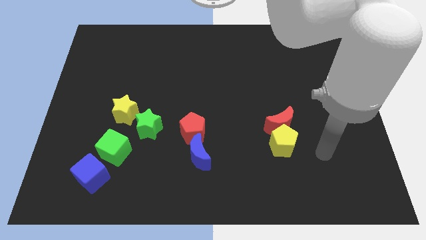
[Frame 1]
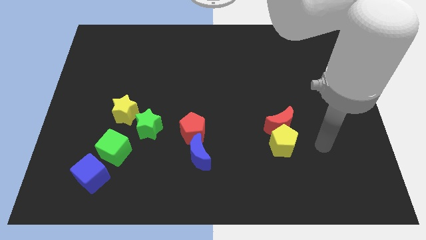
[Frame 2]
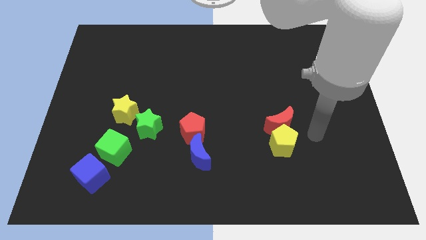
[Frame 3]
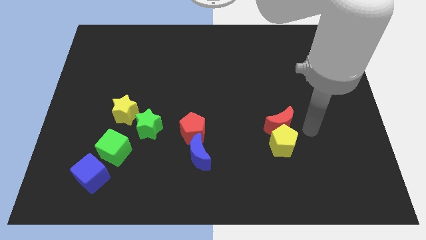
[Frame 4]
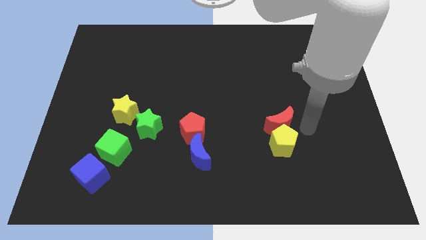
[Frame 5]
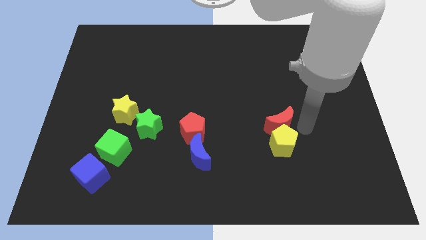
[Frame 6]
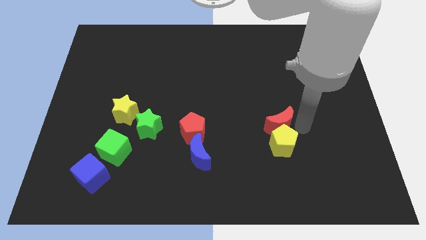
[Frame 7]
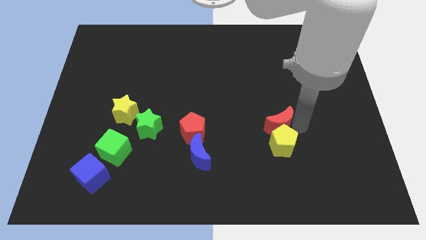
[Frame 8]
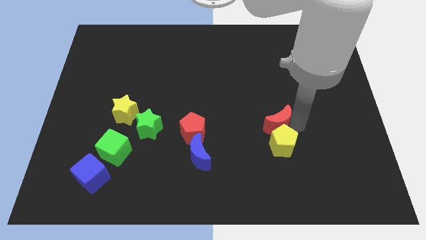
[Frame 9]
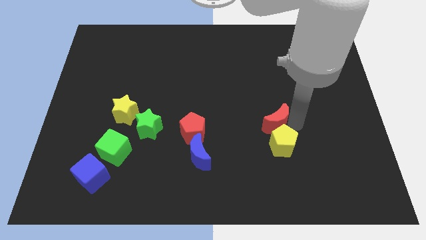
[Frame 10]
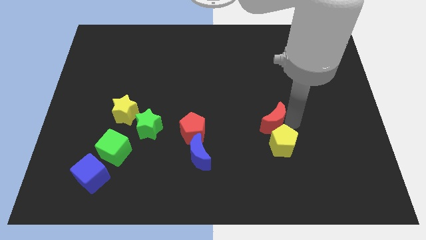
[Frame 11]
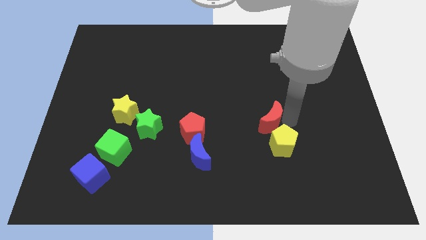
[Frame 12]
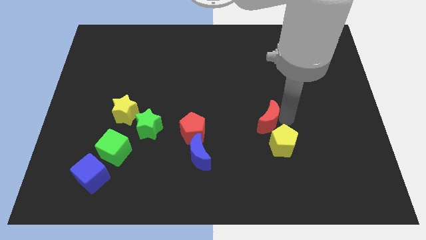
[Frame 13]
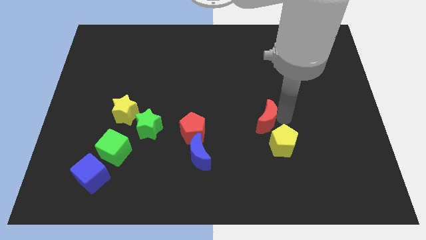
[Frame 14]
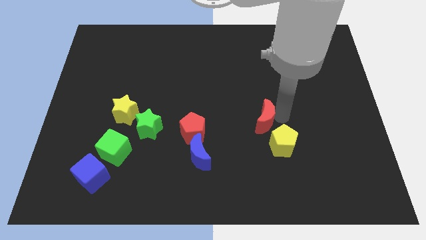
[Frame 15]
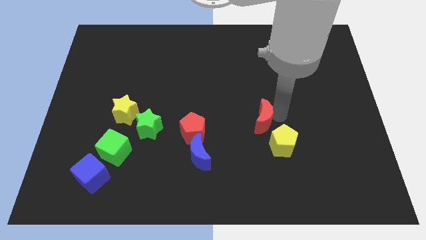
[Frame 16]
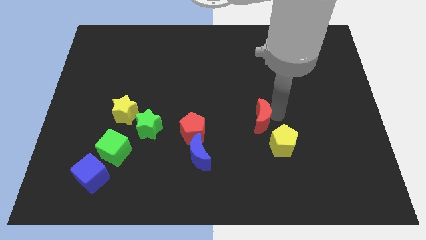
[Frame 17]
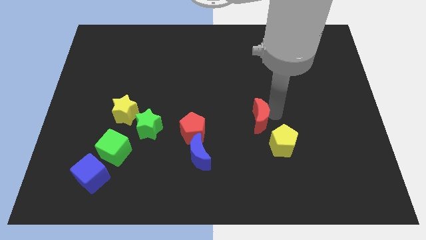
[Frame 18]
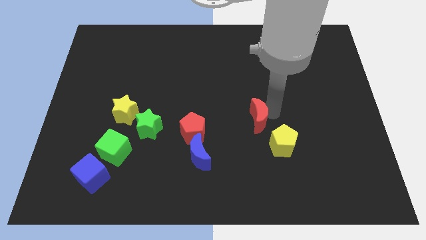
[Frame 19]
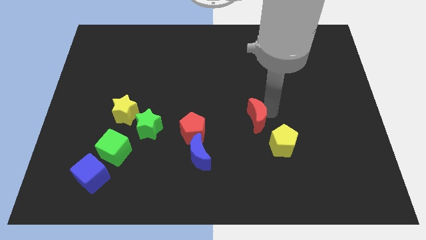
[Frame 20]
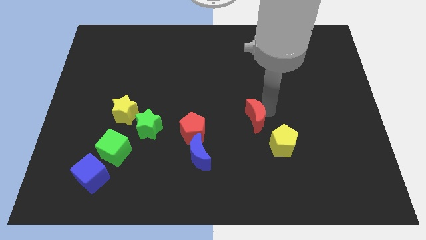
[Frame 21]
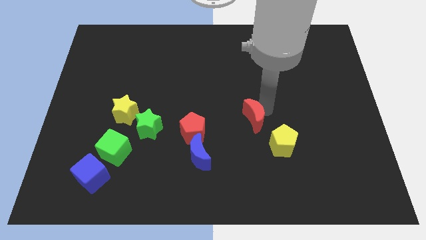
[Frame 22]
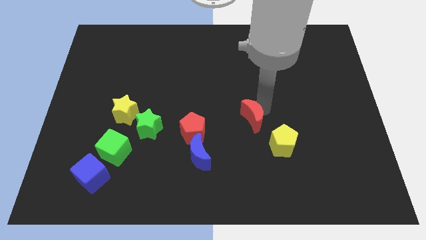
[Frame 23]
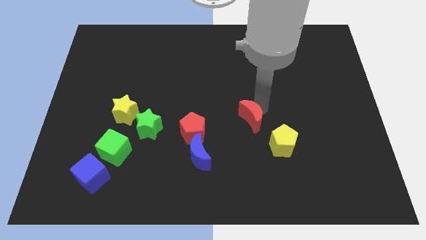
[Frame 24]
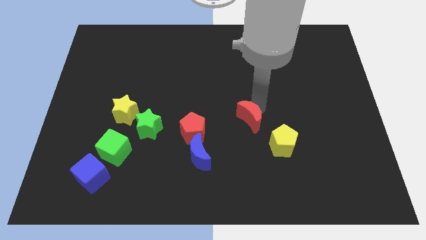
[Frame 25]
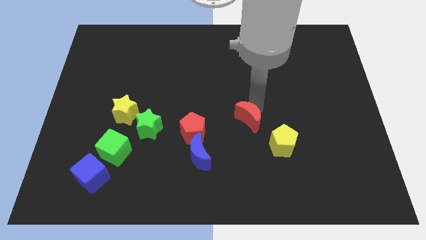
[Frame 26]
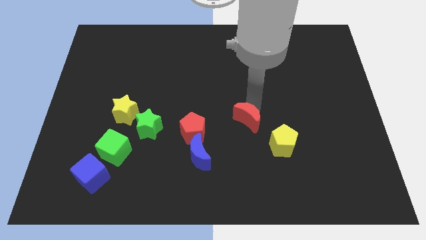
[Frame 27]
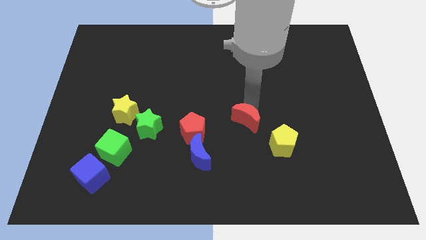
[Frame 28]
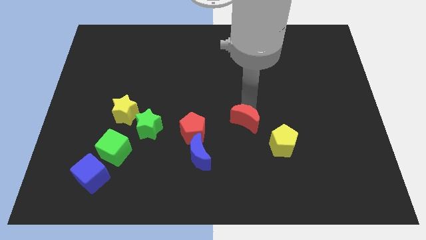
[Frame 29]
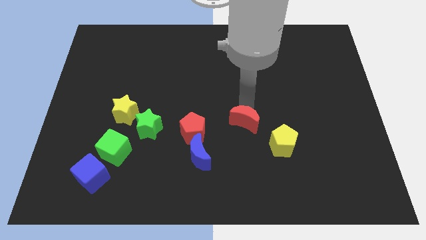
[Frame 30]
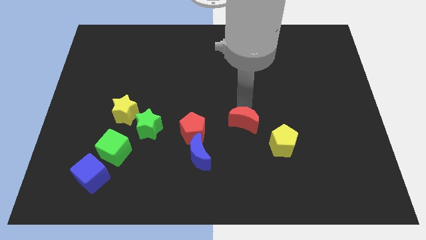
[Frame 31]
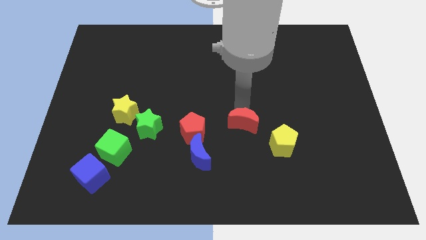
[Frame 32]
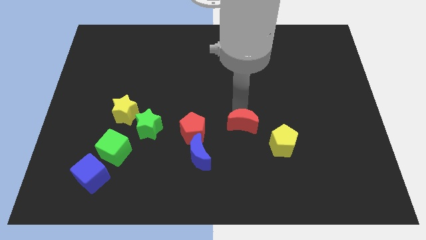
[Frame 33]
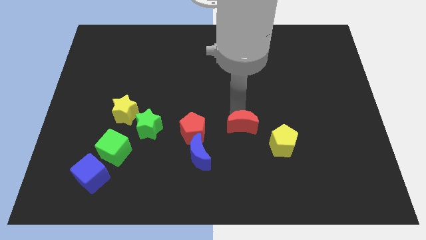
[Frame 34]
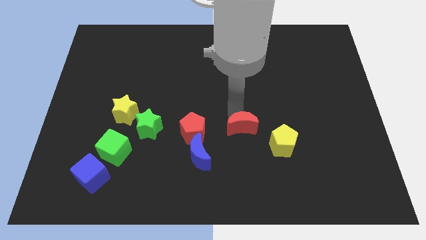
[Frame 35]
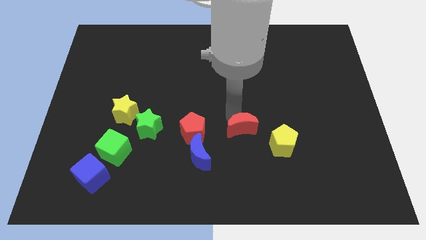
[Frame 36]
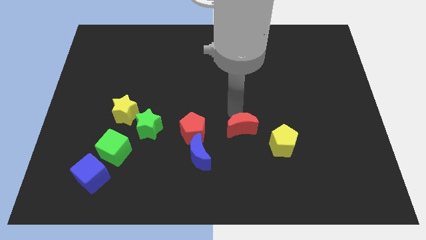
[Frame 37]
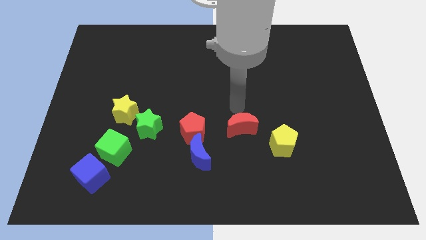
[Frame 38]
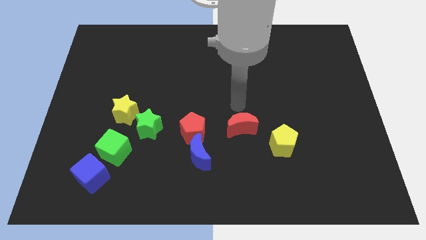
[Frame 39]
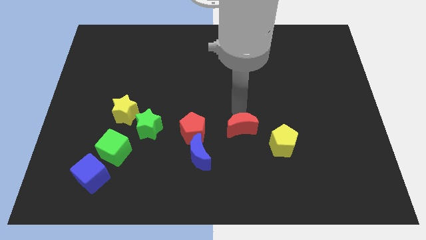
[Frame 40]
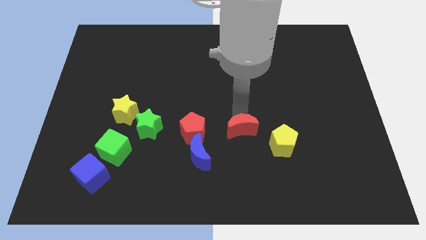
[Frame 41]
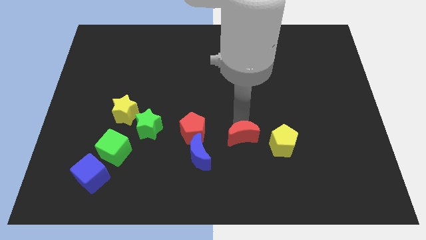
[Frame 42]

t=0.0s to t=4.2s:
slightly slide the red moon diagonally down and to the left

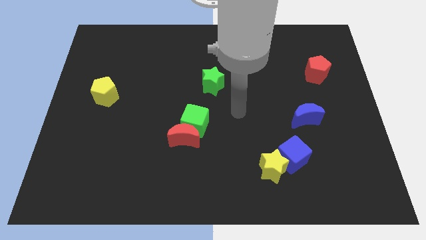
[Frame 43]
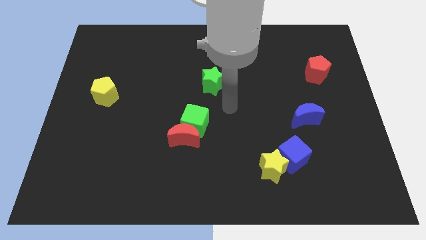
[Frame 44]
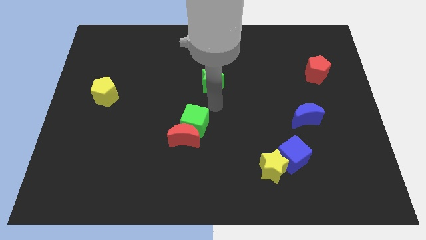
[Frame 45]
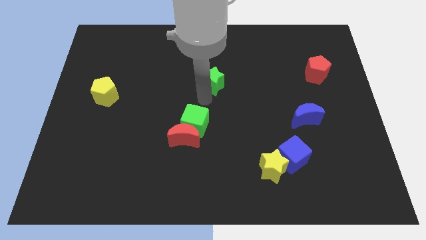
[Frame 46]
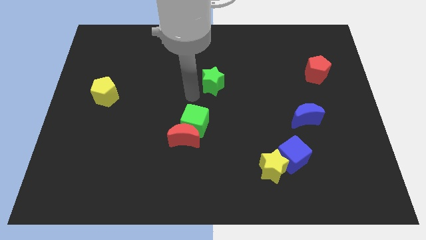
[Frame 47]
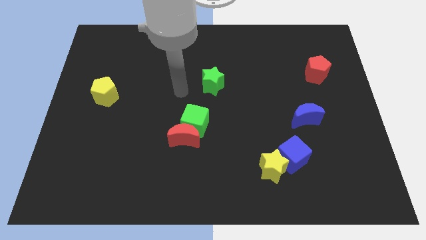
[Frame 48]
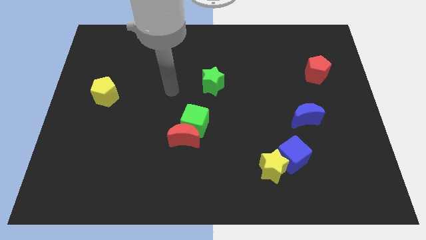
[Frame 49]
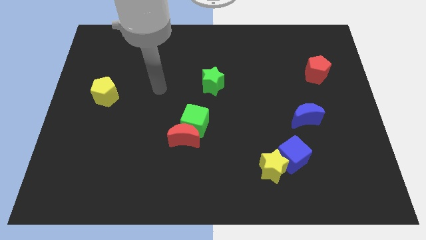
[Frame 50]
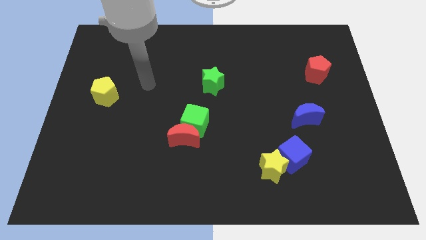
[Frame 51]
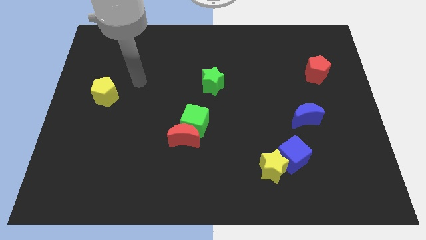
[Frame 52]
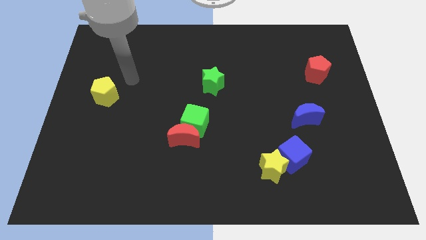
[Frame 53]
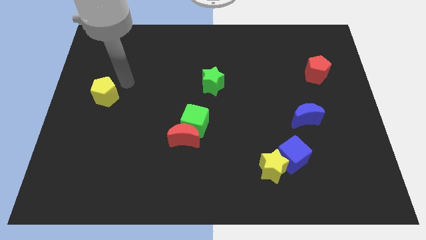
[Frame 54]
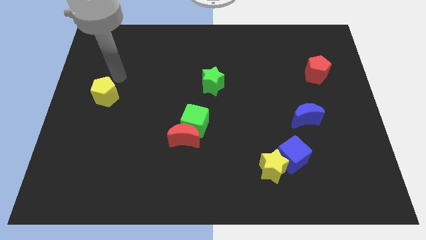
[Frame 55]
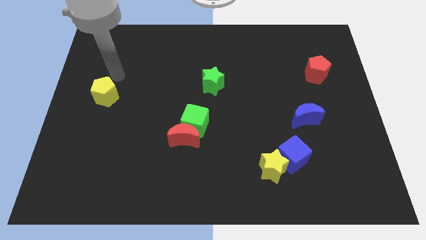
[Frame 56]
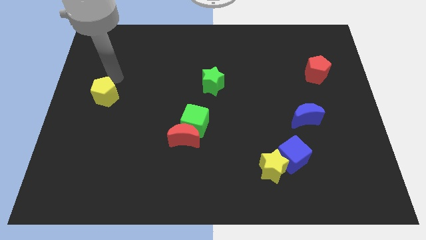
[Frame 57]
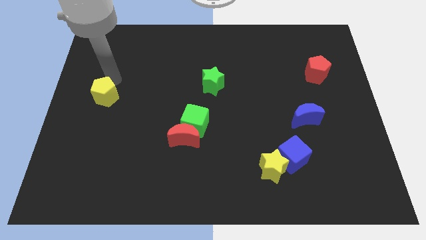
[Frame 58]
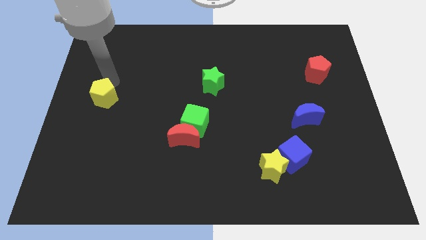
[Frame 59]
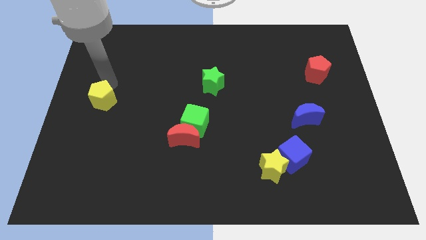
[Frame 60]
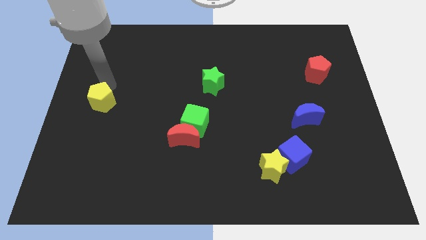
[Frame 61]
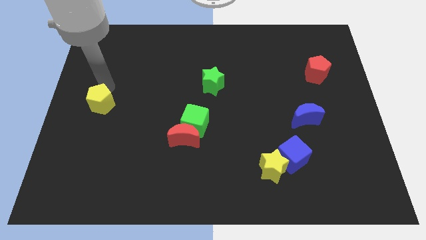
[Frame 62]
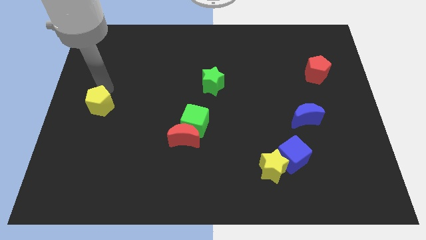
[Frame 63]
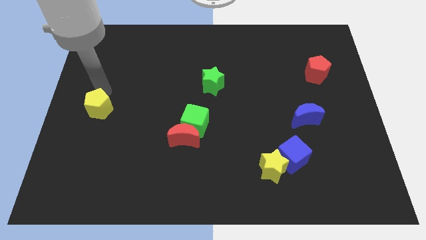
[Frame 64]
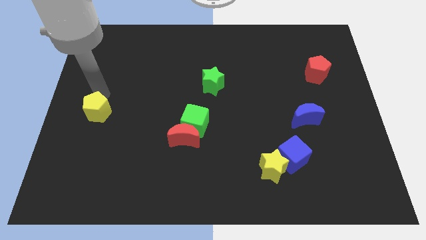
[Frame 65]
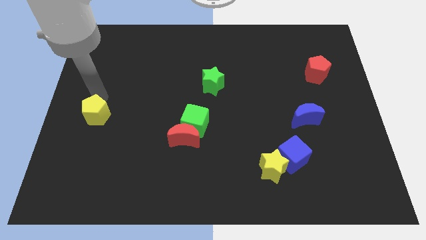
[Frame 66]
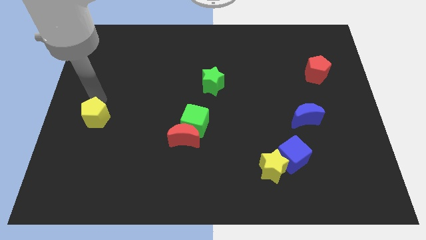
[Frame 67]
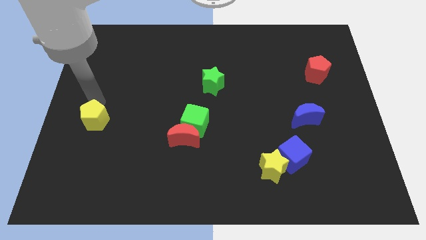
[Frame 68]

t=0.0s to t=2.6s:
slide the yellow pentagon a little bit downwards

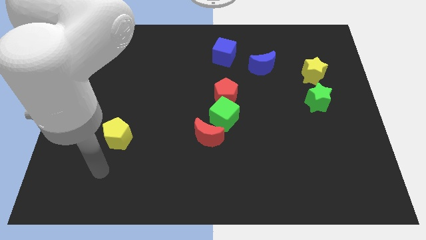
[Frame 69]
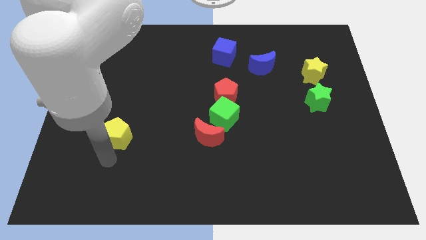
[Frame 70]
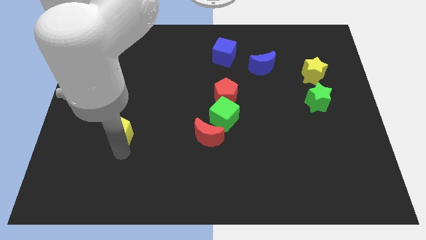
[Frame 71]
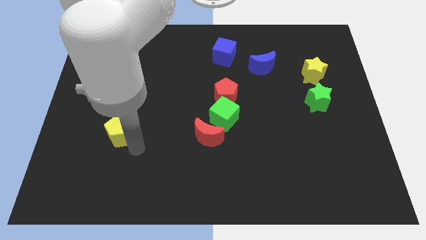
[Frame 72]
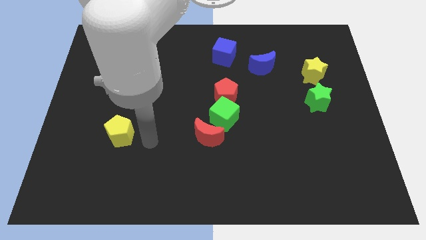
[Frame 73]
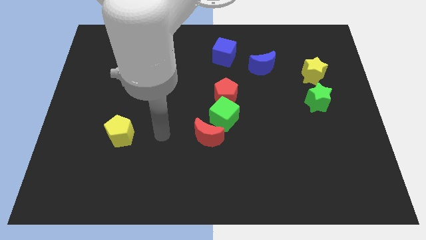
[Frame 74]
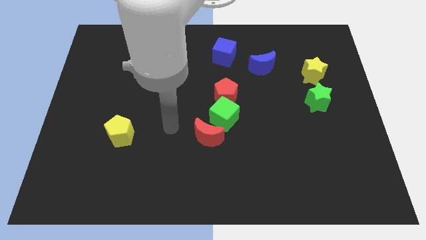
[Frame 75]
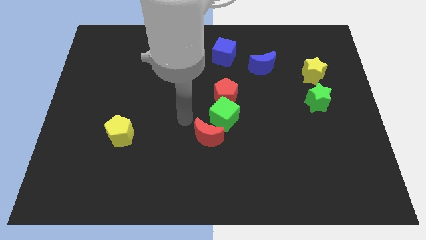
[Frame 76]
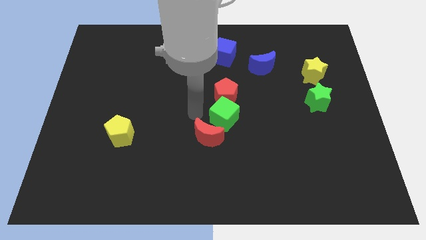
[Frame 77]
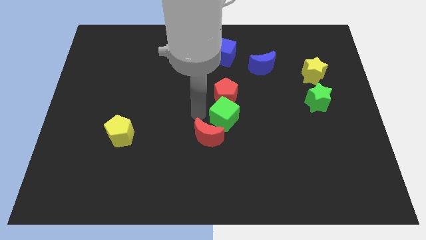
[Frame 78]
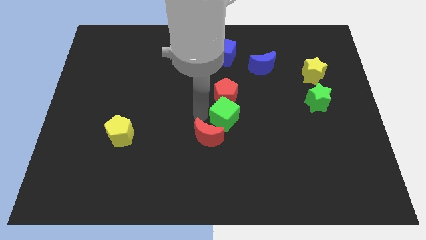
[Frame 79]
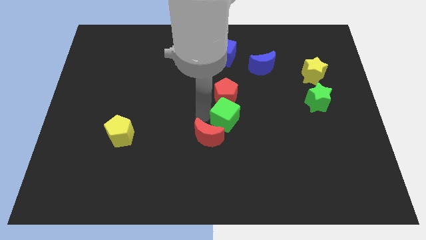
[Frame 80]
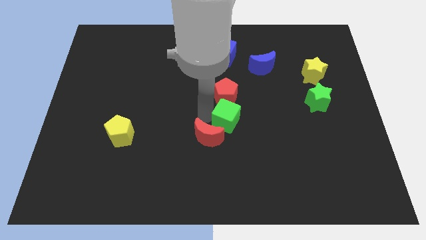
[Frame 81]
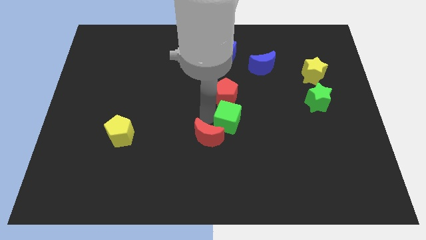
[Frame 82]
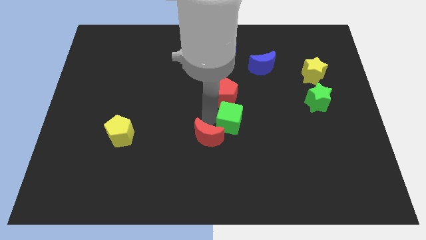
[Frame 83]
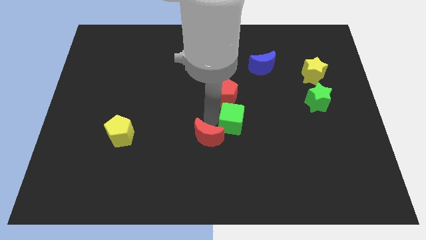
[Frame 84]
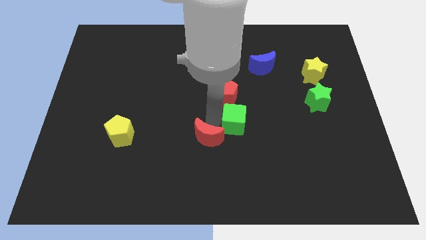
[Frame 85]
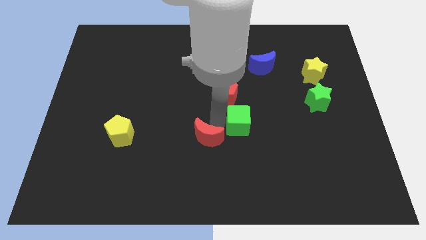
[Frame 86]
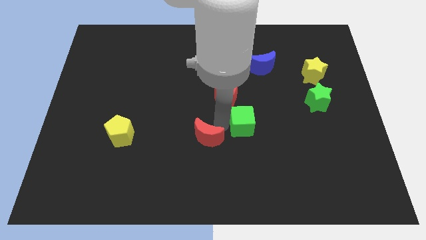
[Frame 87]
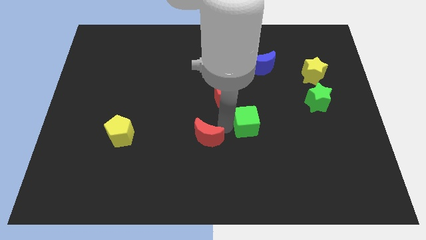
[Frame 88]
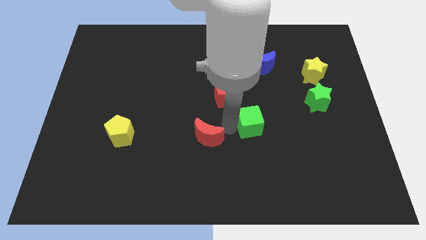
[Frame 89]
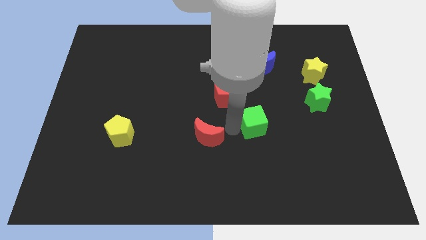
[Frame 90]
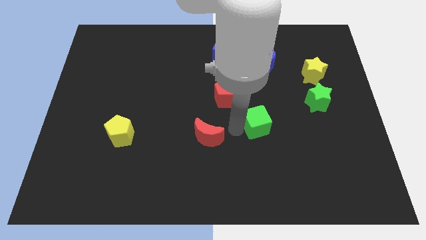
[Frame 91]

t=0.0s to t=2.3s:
push the green cube right somewhat
